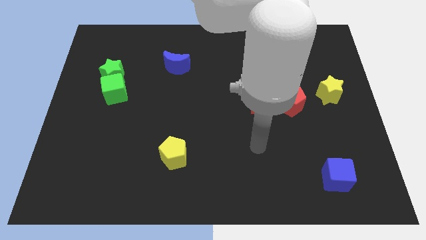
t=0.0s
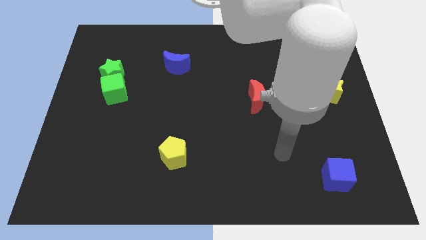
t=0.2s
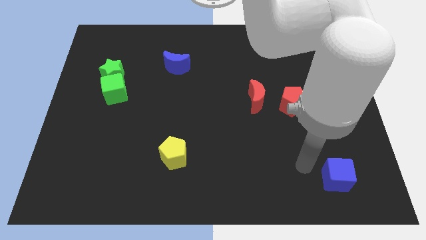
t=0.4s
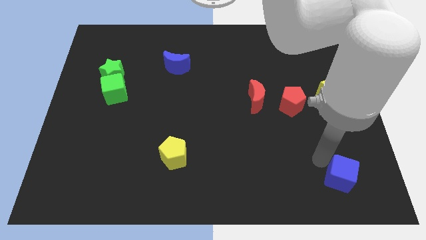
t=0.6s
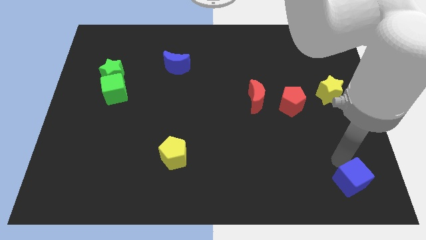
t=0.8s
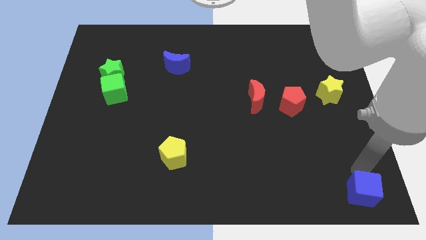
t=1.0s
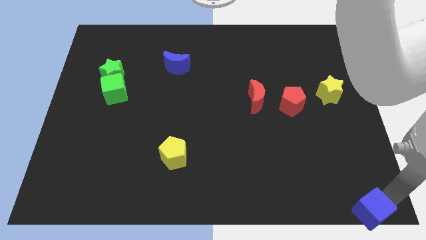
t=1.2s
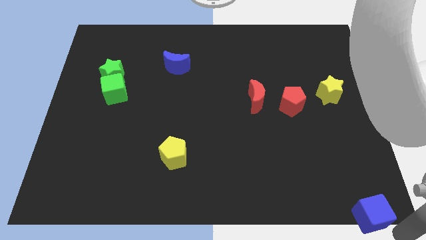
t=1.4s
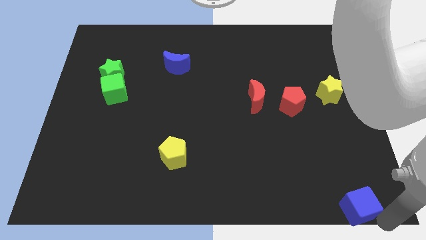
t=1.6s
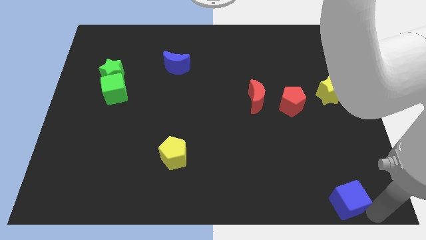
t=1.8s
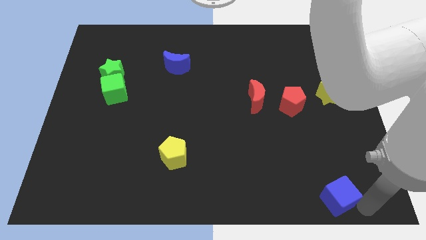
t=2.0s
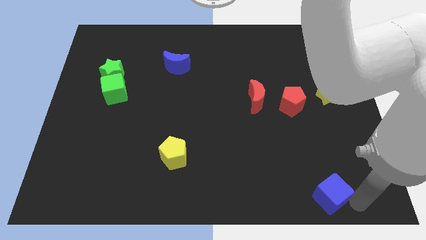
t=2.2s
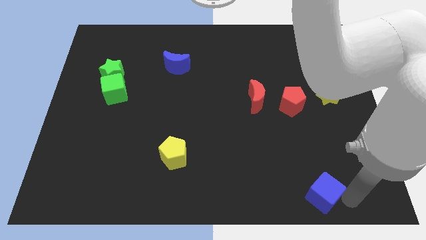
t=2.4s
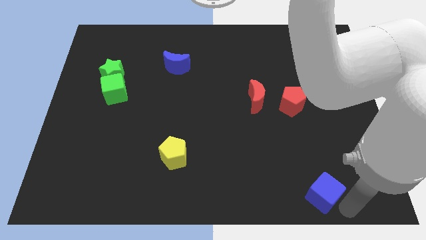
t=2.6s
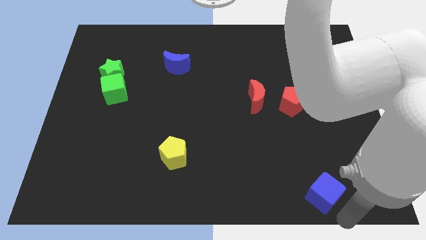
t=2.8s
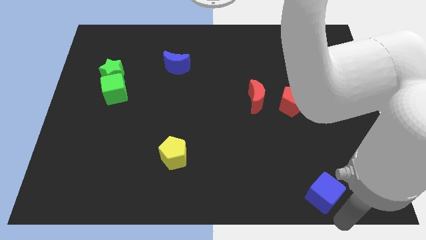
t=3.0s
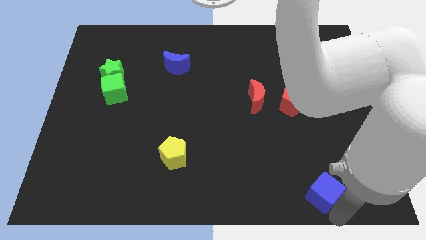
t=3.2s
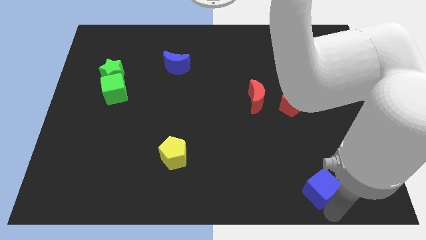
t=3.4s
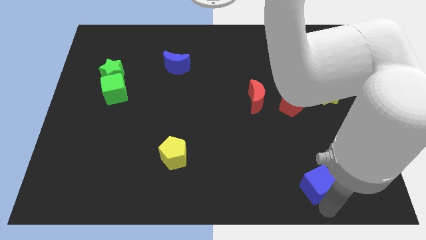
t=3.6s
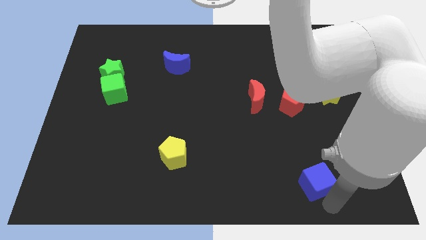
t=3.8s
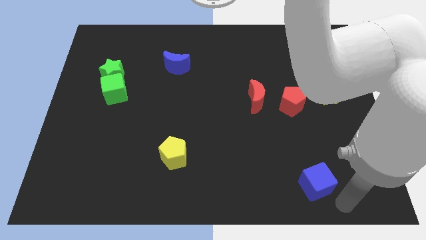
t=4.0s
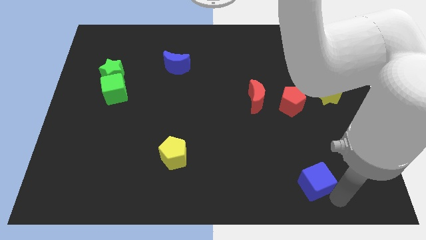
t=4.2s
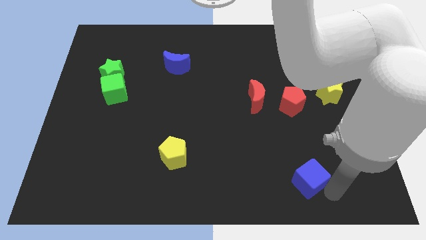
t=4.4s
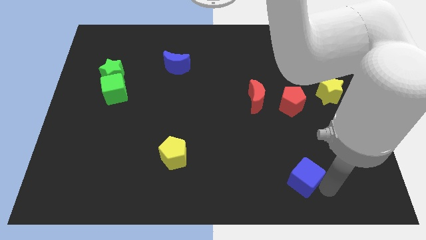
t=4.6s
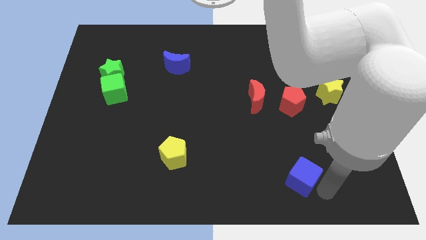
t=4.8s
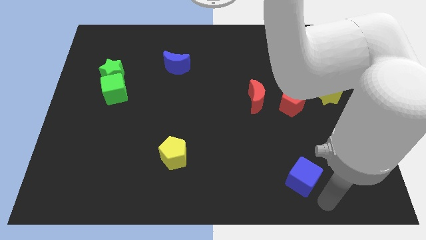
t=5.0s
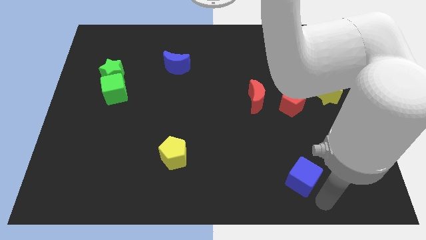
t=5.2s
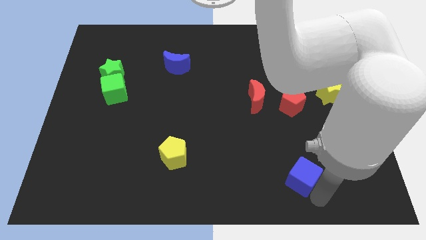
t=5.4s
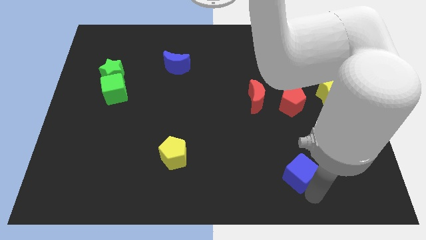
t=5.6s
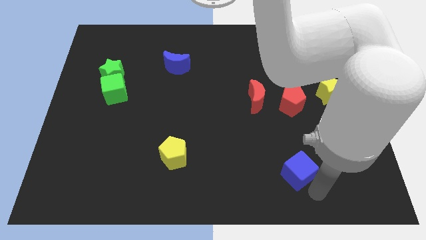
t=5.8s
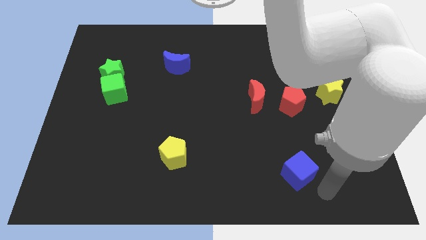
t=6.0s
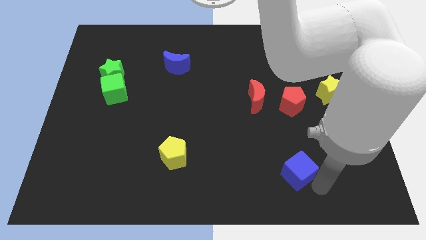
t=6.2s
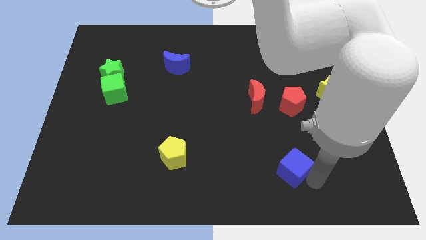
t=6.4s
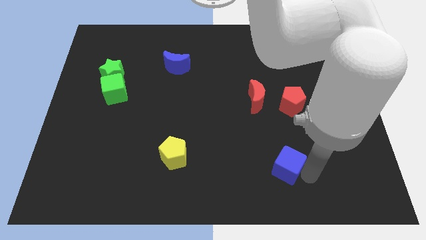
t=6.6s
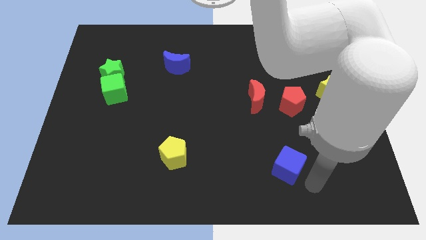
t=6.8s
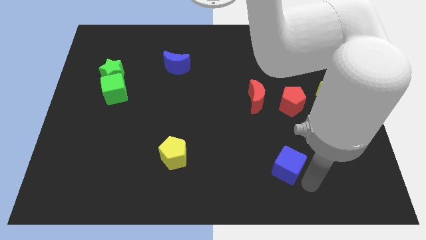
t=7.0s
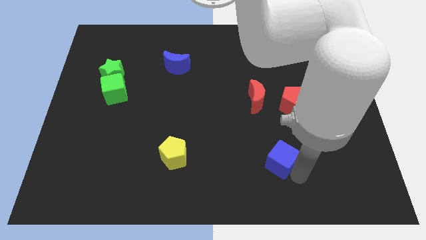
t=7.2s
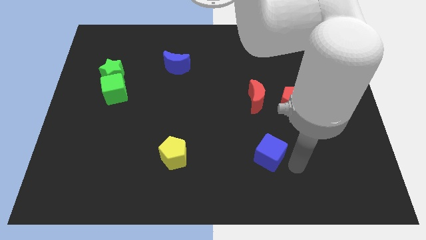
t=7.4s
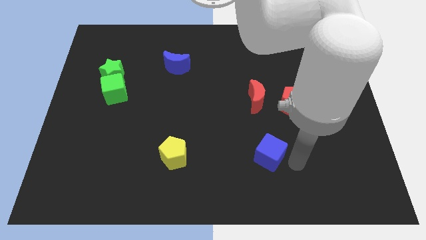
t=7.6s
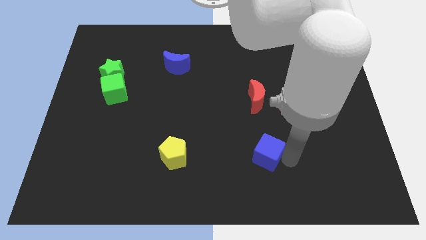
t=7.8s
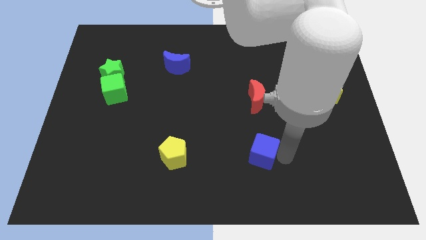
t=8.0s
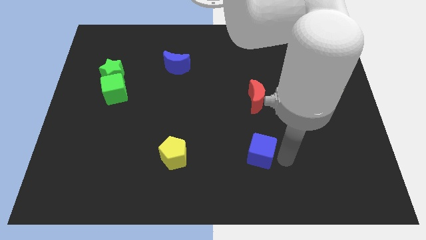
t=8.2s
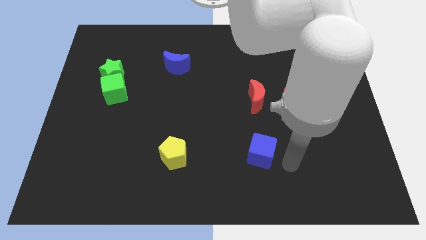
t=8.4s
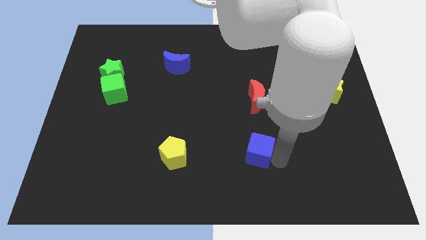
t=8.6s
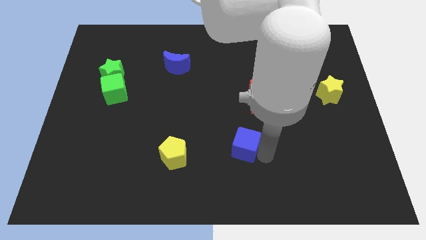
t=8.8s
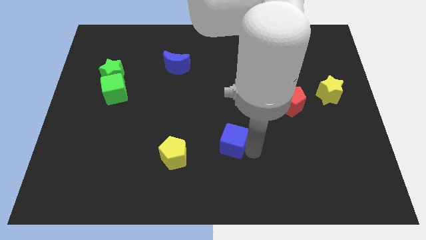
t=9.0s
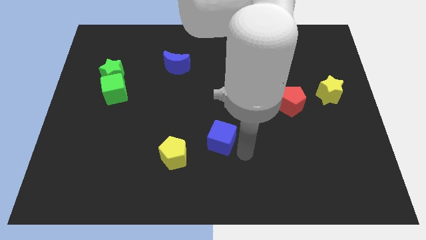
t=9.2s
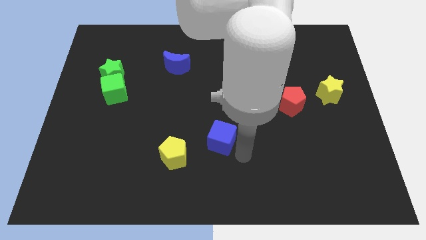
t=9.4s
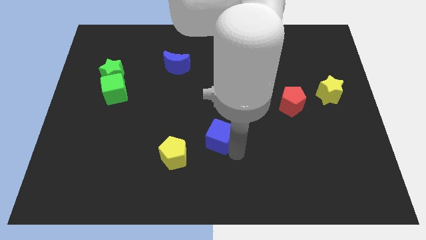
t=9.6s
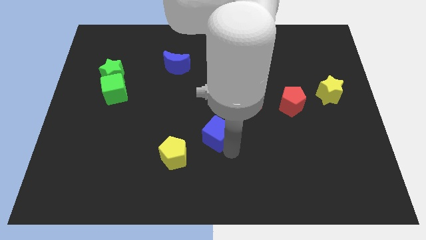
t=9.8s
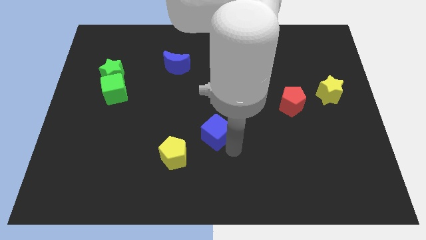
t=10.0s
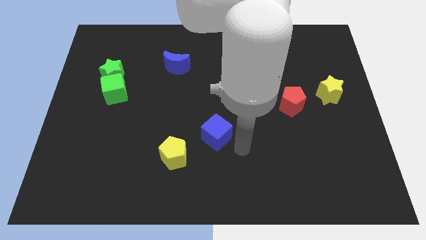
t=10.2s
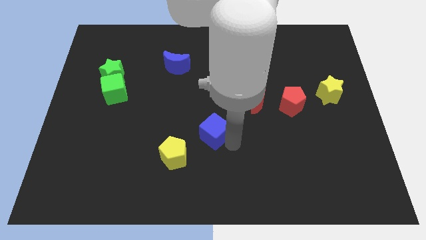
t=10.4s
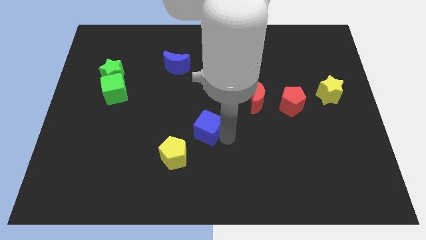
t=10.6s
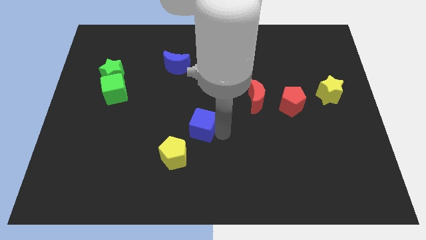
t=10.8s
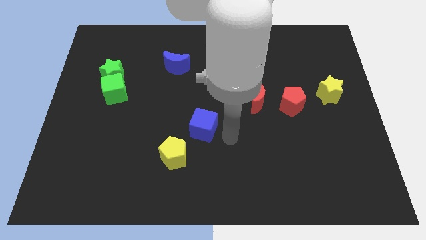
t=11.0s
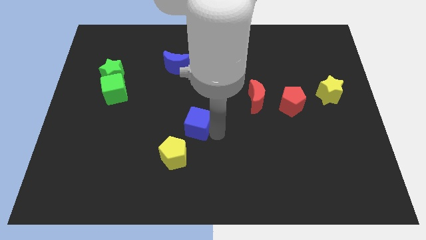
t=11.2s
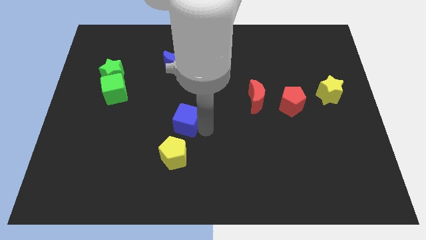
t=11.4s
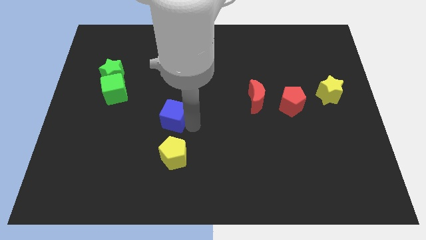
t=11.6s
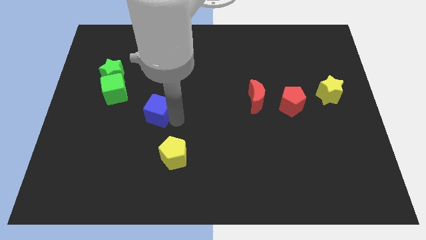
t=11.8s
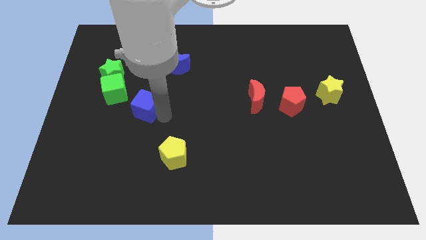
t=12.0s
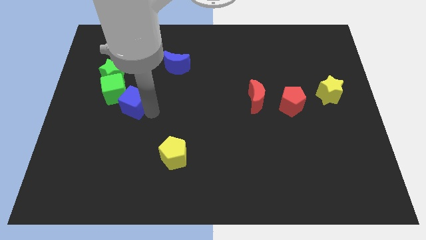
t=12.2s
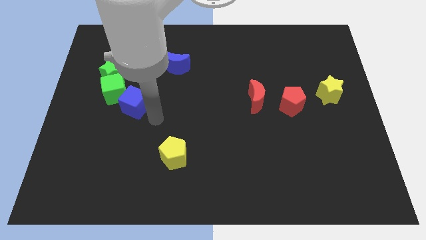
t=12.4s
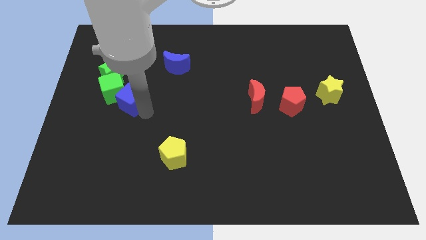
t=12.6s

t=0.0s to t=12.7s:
put the blue cube to the green cube

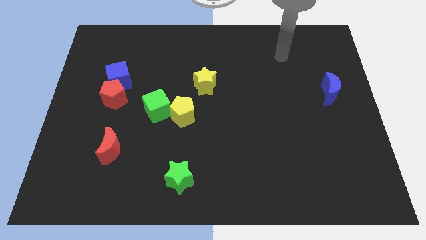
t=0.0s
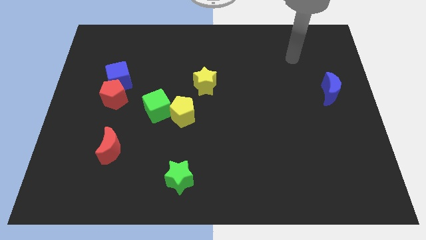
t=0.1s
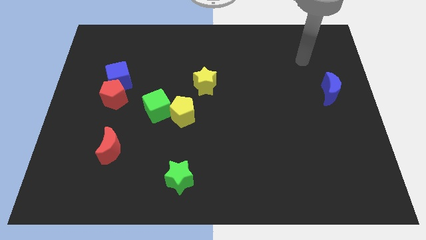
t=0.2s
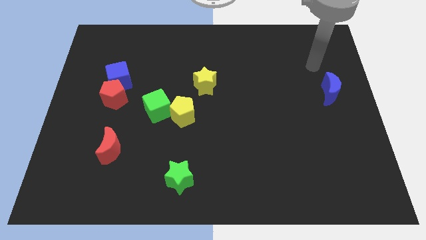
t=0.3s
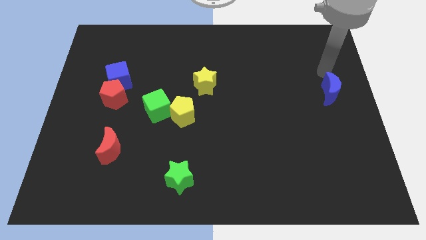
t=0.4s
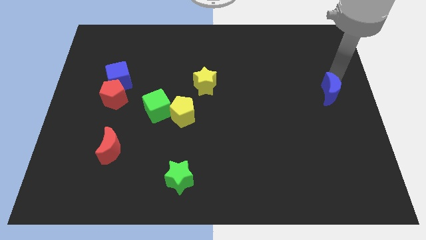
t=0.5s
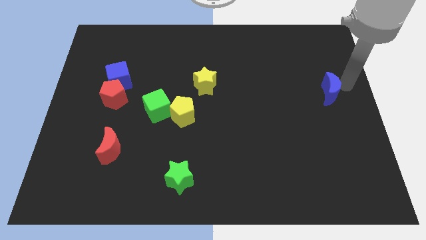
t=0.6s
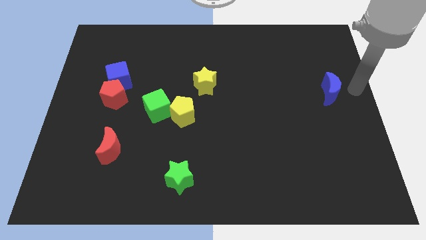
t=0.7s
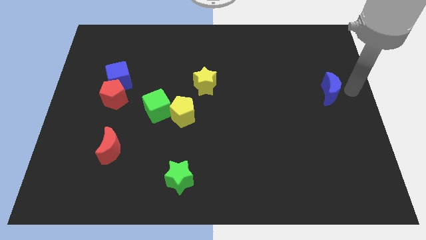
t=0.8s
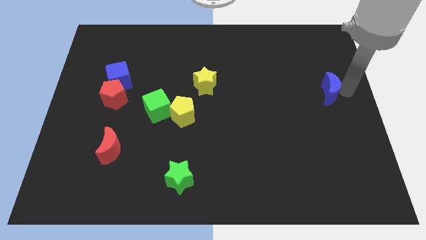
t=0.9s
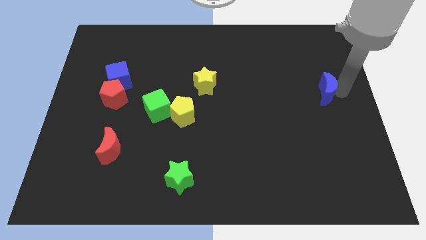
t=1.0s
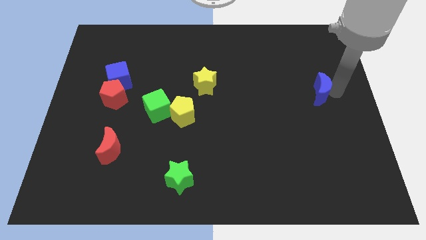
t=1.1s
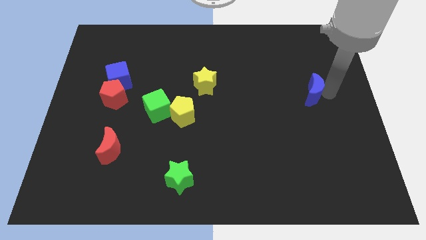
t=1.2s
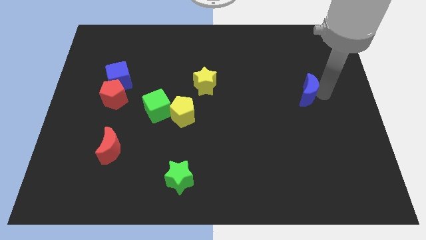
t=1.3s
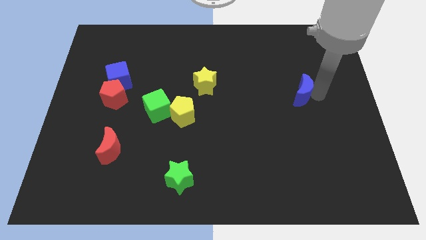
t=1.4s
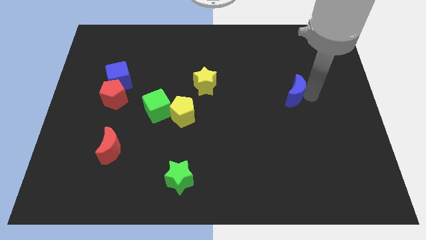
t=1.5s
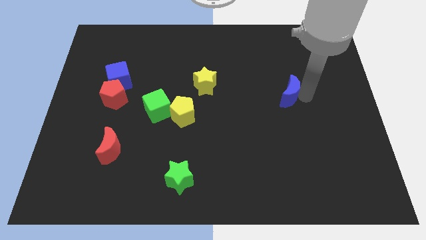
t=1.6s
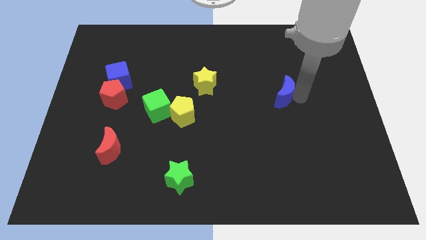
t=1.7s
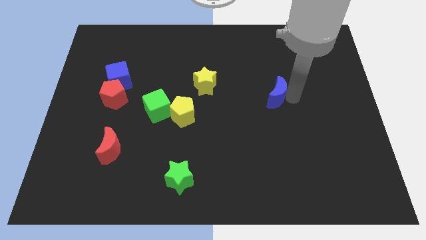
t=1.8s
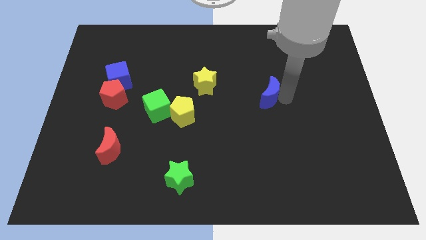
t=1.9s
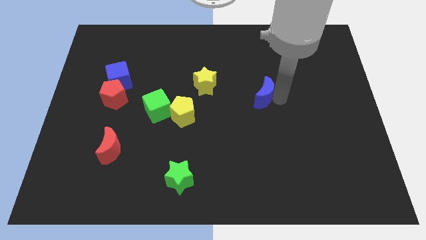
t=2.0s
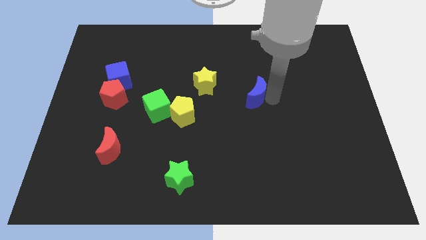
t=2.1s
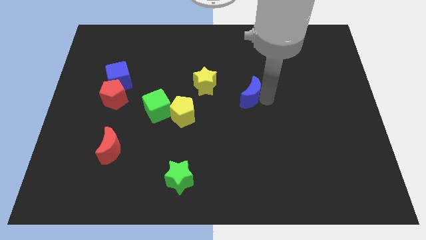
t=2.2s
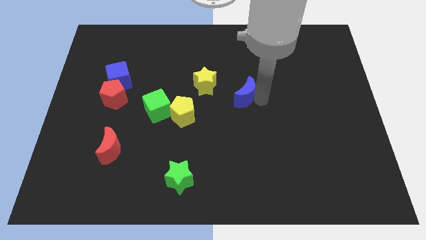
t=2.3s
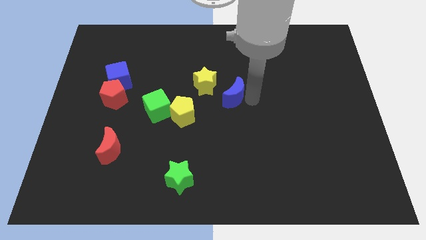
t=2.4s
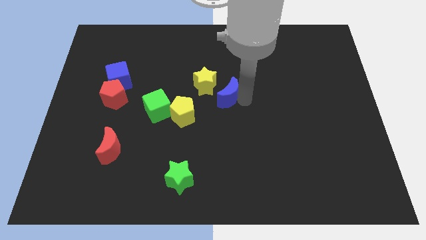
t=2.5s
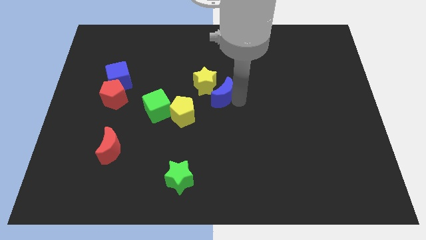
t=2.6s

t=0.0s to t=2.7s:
put the blue moon towards the yellow star
